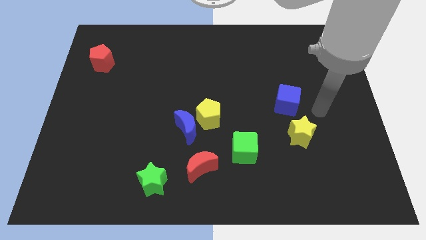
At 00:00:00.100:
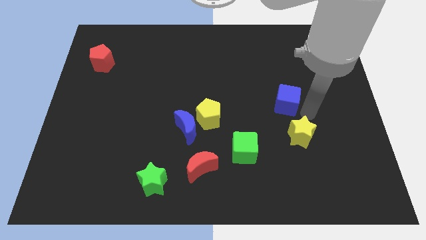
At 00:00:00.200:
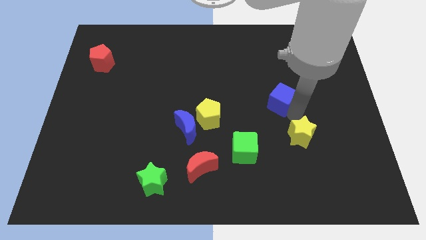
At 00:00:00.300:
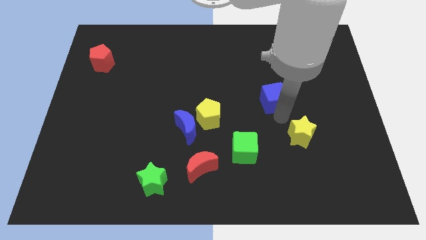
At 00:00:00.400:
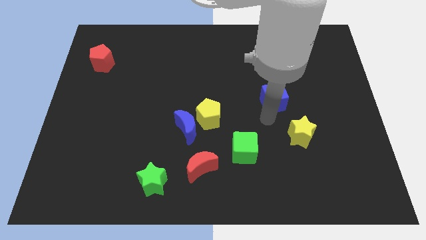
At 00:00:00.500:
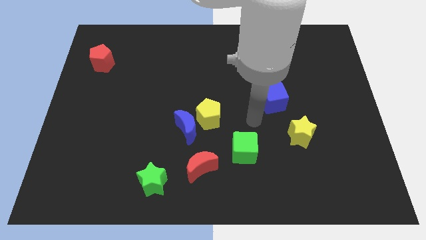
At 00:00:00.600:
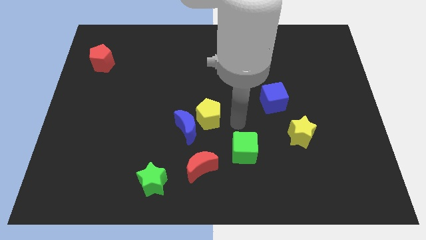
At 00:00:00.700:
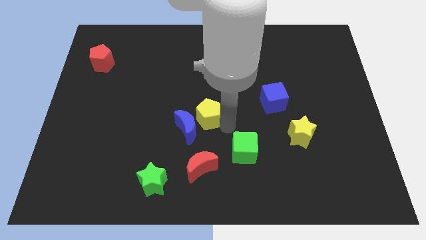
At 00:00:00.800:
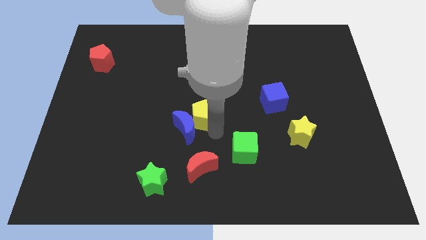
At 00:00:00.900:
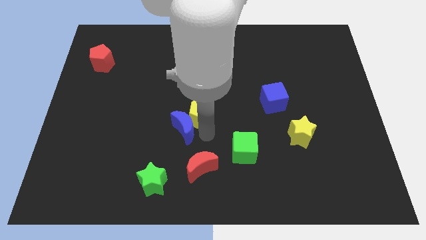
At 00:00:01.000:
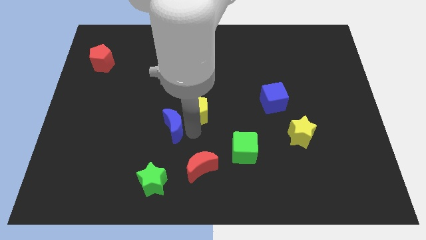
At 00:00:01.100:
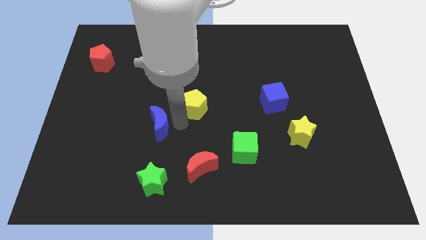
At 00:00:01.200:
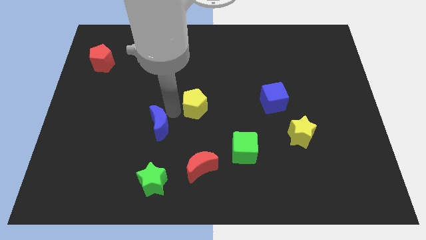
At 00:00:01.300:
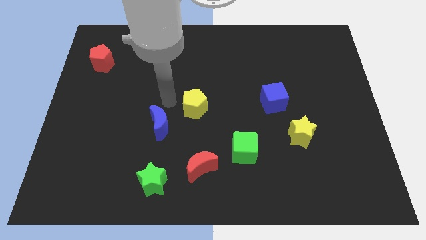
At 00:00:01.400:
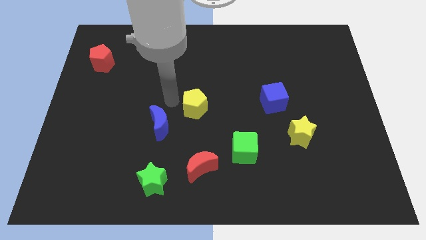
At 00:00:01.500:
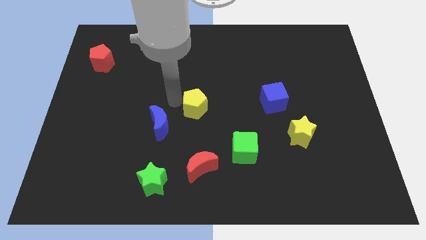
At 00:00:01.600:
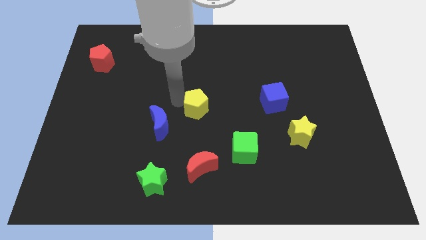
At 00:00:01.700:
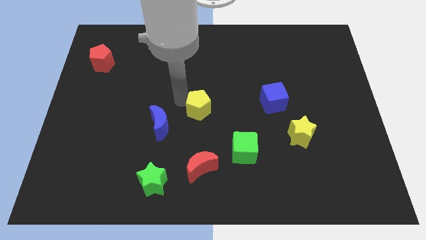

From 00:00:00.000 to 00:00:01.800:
separate the yellow pentagon from the blue moon

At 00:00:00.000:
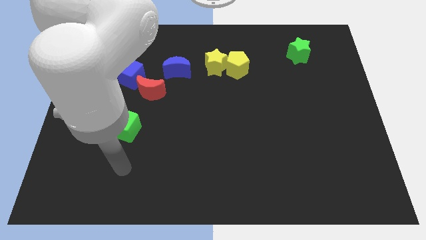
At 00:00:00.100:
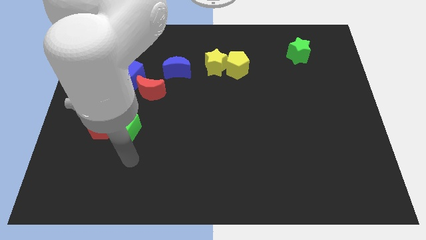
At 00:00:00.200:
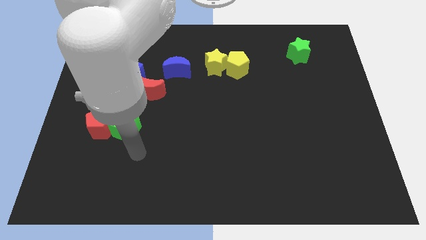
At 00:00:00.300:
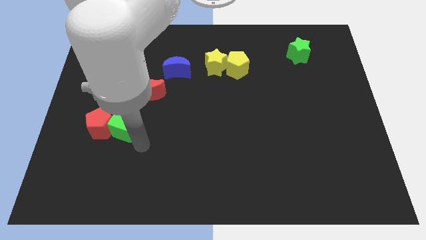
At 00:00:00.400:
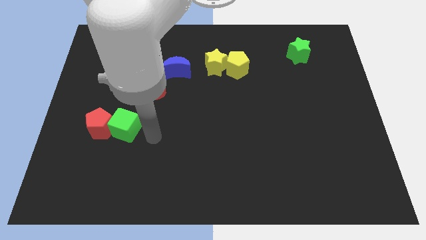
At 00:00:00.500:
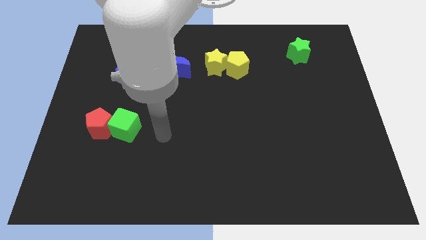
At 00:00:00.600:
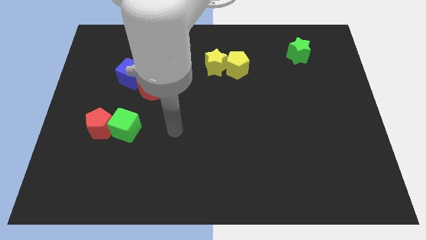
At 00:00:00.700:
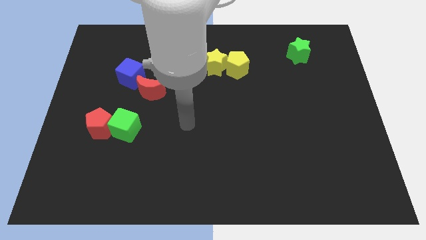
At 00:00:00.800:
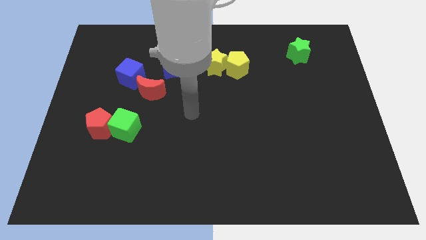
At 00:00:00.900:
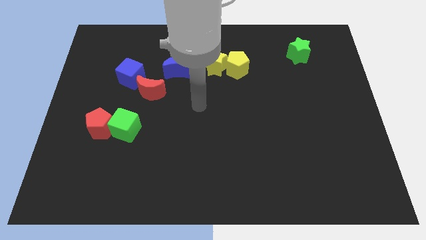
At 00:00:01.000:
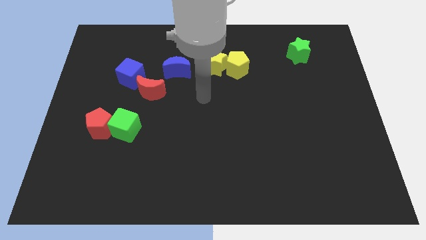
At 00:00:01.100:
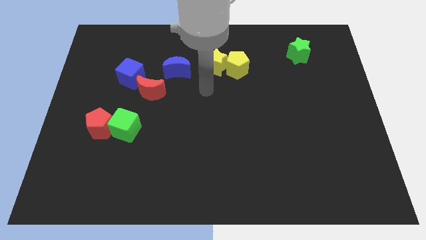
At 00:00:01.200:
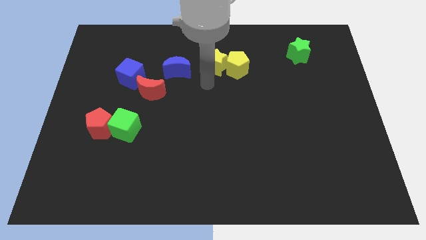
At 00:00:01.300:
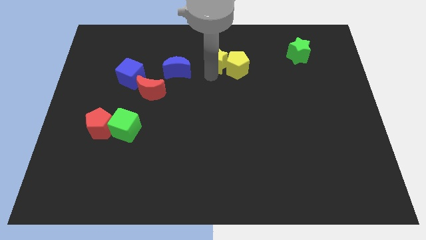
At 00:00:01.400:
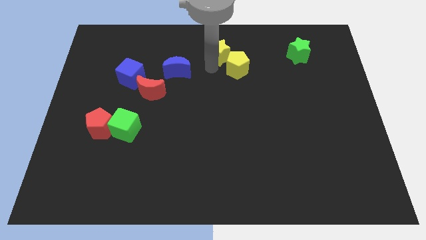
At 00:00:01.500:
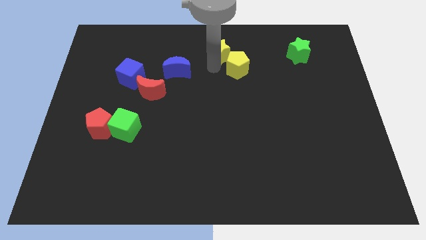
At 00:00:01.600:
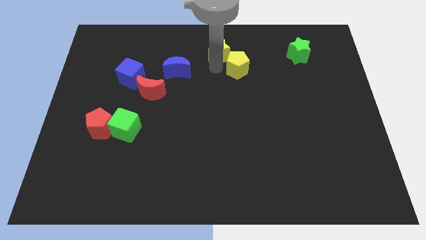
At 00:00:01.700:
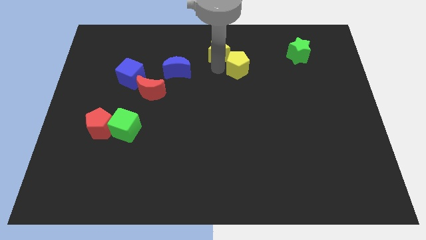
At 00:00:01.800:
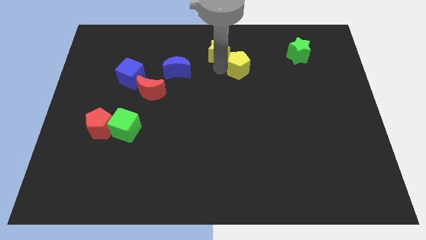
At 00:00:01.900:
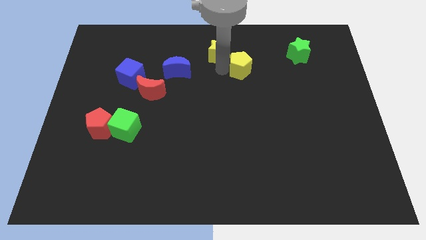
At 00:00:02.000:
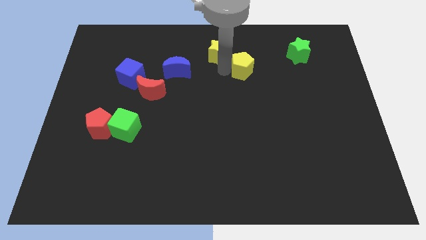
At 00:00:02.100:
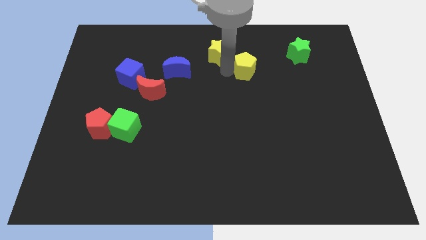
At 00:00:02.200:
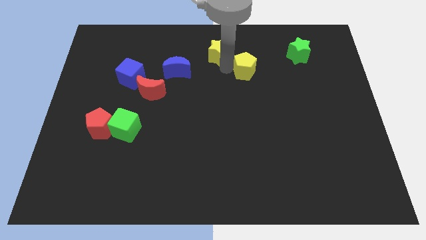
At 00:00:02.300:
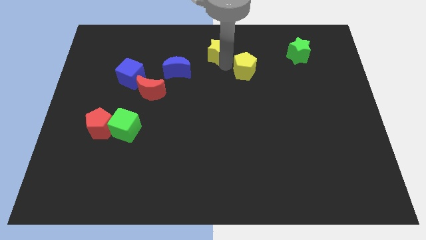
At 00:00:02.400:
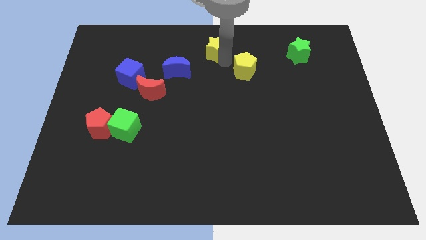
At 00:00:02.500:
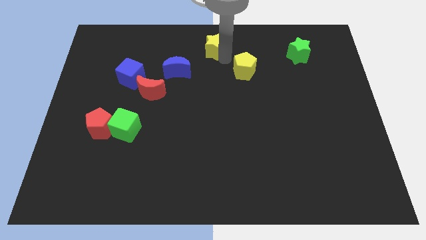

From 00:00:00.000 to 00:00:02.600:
pull the yellow pentagon apart from the yellow star

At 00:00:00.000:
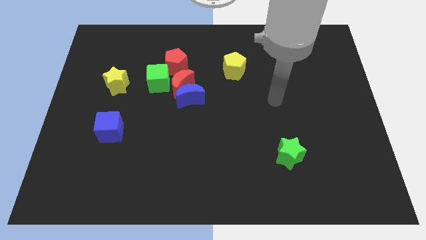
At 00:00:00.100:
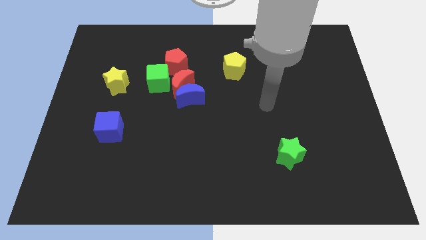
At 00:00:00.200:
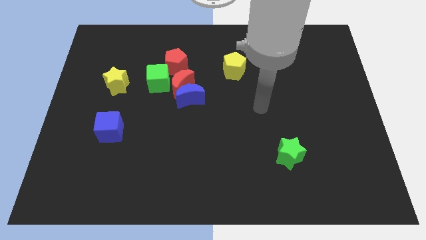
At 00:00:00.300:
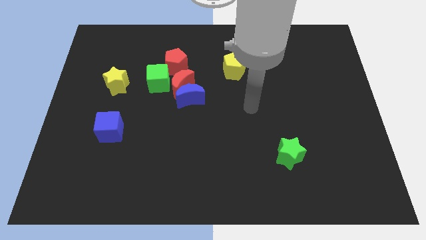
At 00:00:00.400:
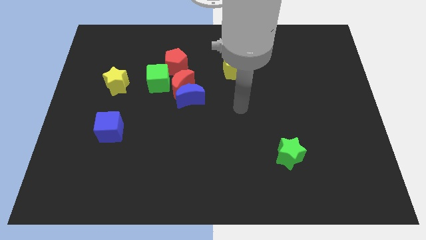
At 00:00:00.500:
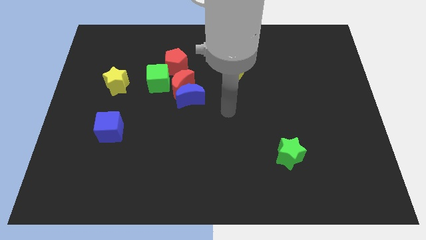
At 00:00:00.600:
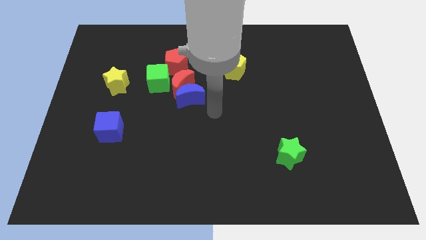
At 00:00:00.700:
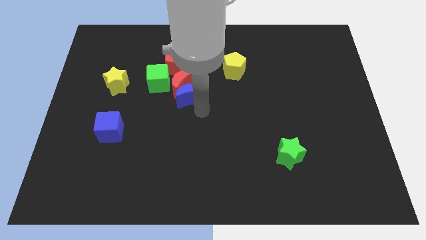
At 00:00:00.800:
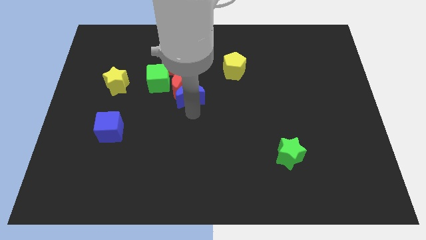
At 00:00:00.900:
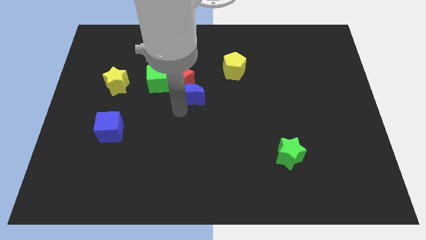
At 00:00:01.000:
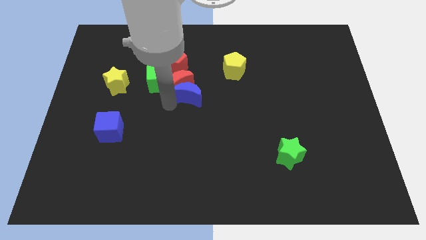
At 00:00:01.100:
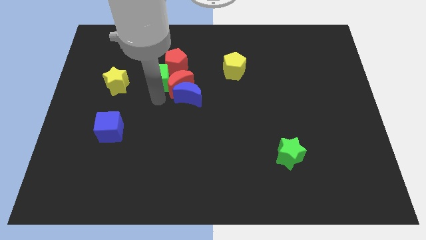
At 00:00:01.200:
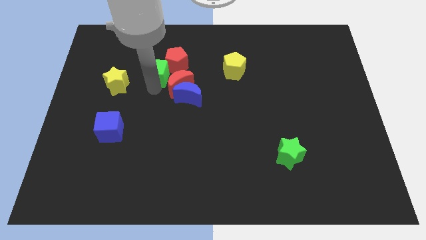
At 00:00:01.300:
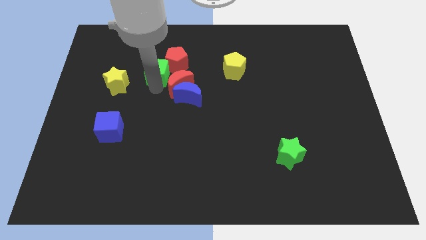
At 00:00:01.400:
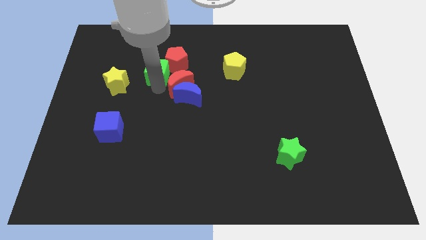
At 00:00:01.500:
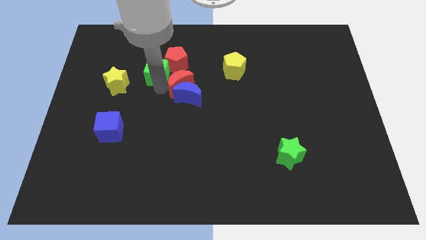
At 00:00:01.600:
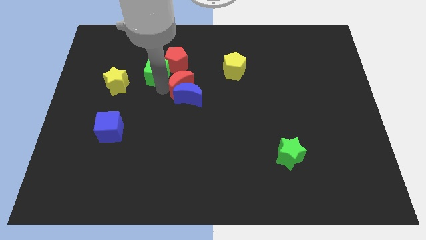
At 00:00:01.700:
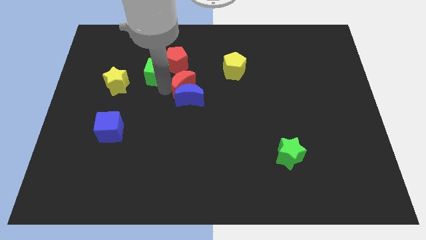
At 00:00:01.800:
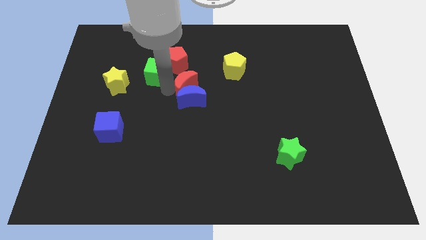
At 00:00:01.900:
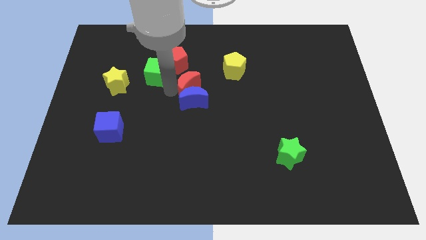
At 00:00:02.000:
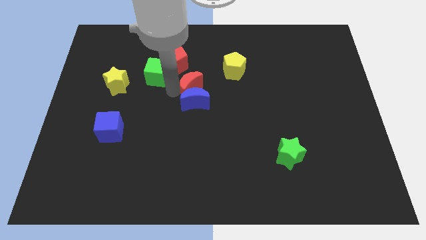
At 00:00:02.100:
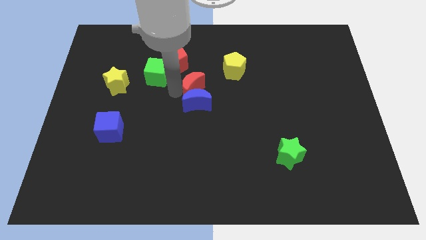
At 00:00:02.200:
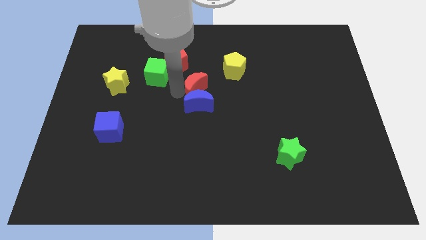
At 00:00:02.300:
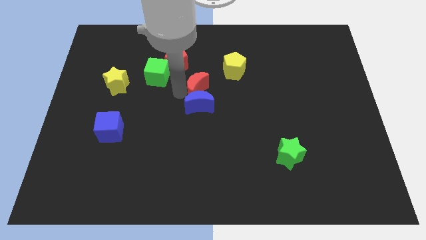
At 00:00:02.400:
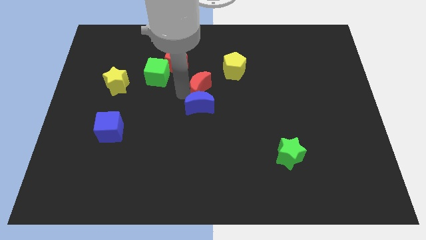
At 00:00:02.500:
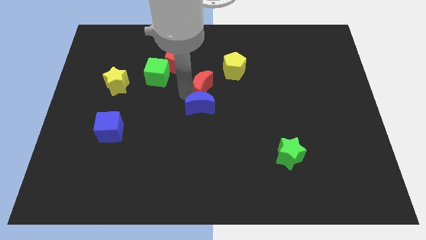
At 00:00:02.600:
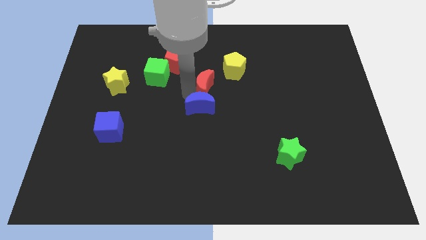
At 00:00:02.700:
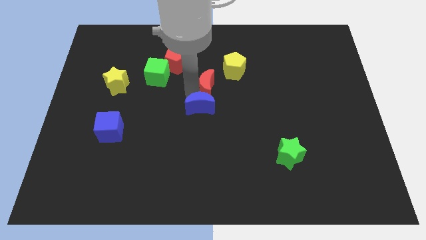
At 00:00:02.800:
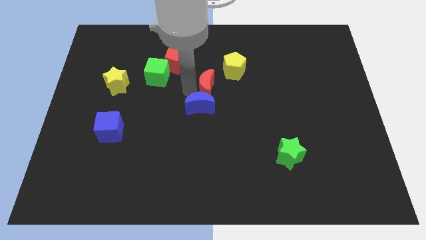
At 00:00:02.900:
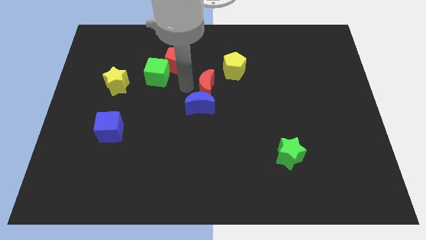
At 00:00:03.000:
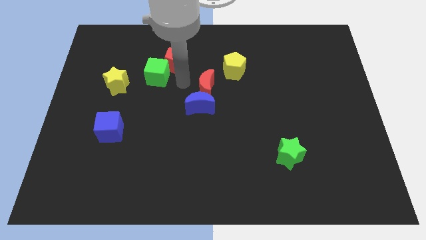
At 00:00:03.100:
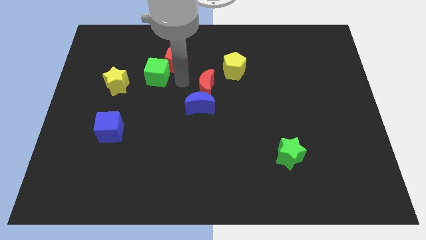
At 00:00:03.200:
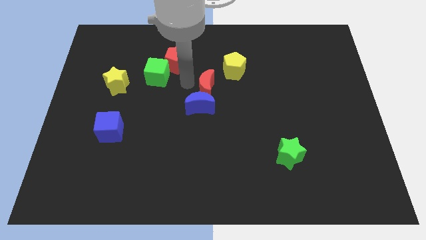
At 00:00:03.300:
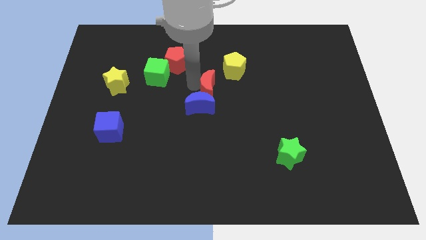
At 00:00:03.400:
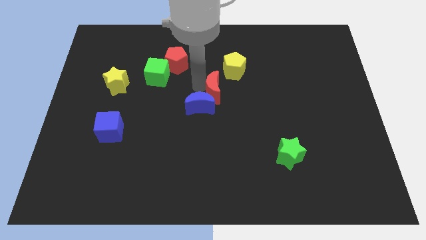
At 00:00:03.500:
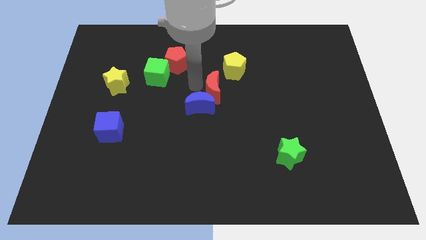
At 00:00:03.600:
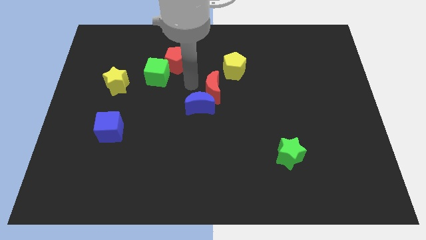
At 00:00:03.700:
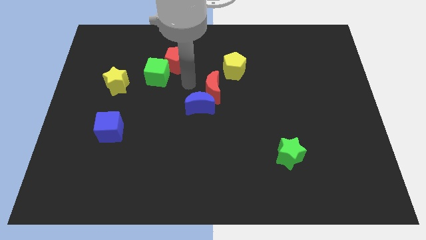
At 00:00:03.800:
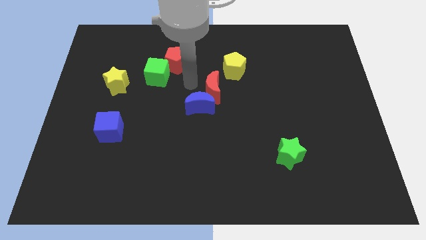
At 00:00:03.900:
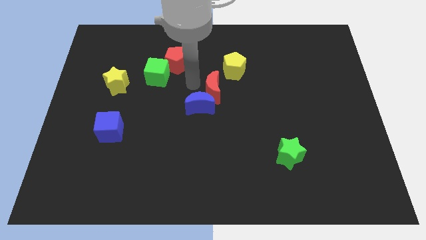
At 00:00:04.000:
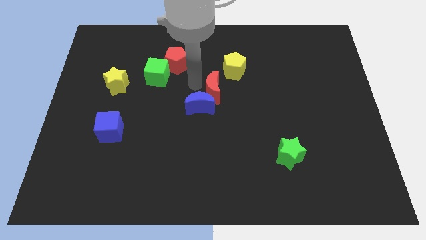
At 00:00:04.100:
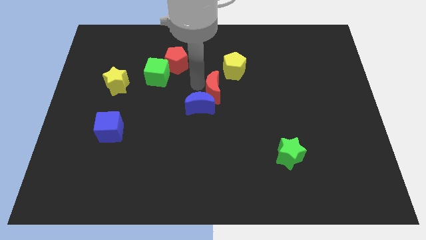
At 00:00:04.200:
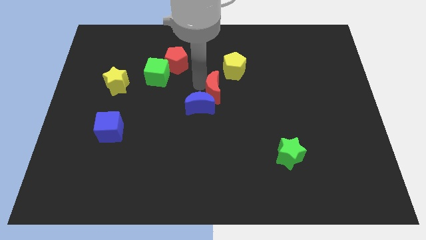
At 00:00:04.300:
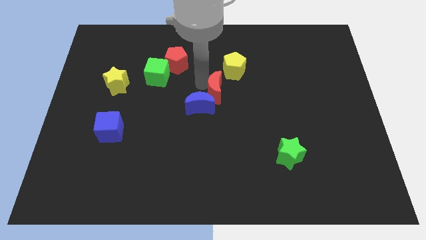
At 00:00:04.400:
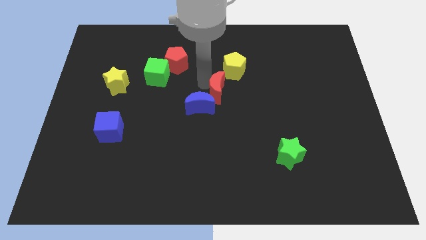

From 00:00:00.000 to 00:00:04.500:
pull the red moon apart from the blue moon, green cube, and red pentagon

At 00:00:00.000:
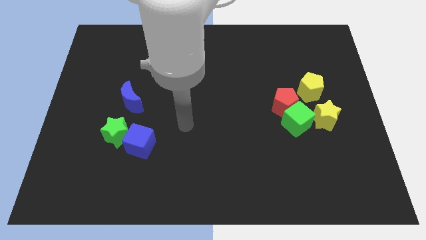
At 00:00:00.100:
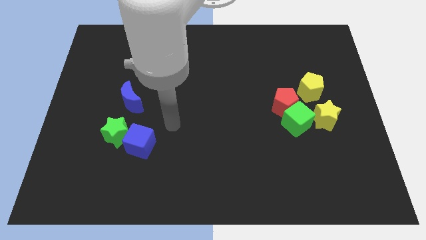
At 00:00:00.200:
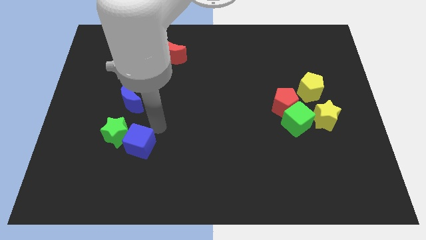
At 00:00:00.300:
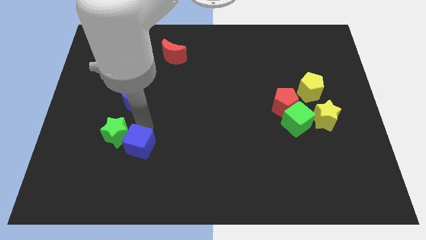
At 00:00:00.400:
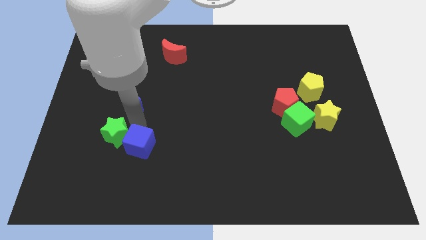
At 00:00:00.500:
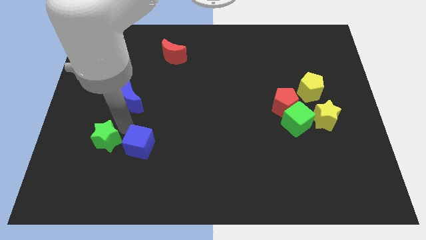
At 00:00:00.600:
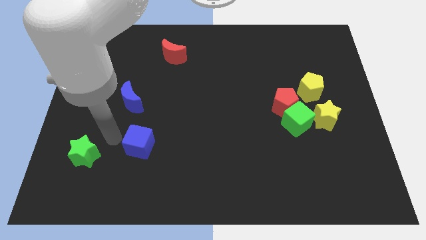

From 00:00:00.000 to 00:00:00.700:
separate the blue cube from the green star
